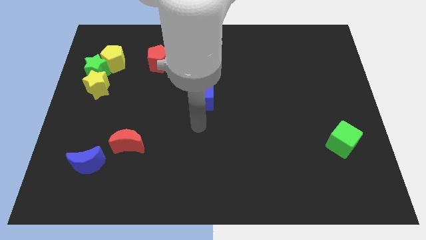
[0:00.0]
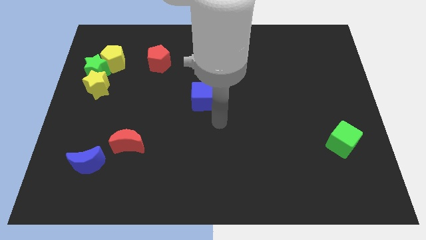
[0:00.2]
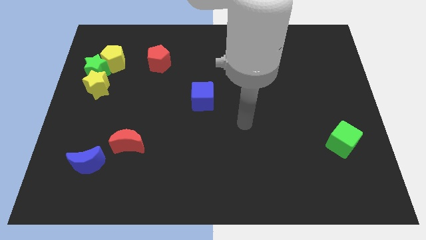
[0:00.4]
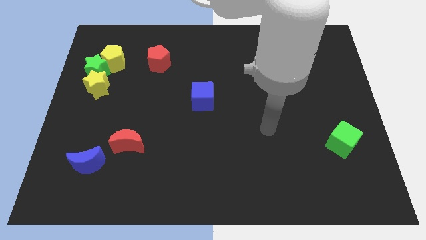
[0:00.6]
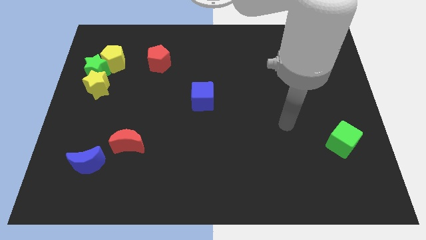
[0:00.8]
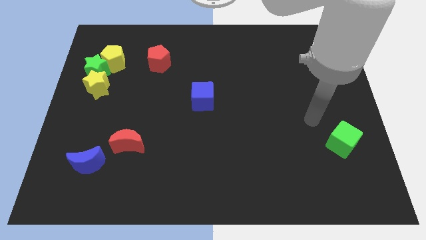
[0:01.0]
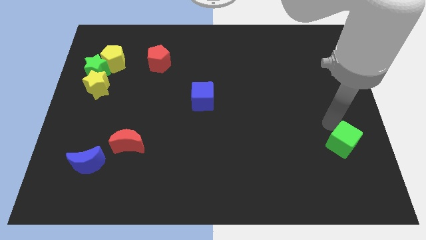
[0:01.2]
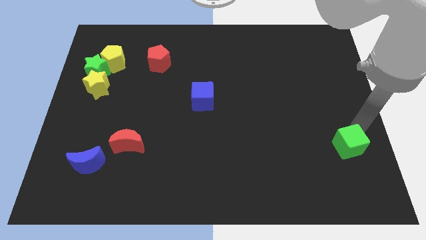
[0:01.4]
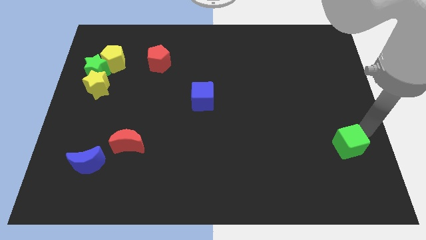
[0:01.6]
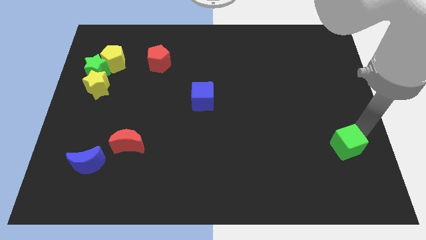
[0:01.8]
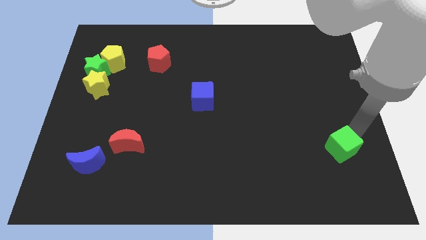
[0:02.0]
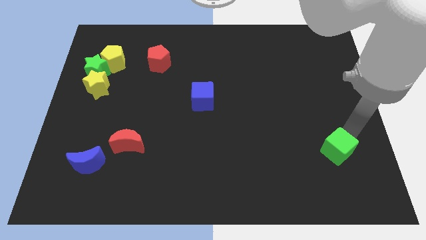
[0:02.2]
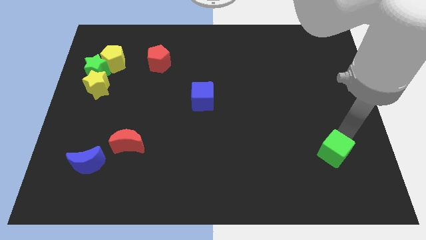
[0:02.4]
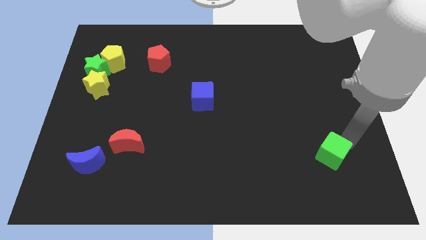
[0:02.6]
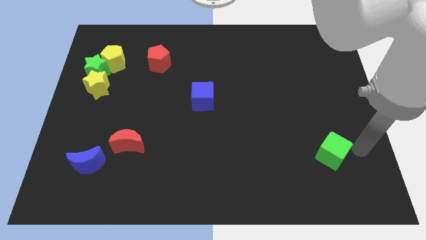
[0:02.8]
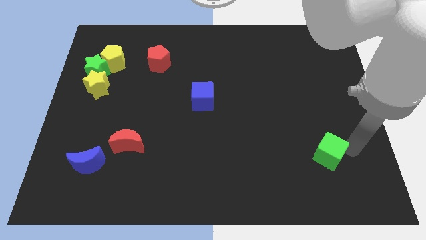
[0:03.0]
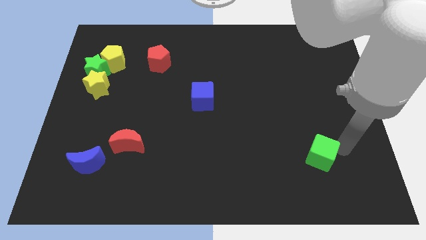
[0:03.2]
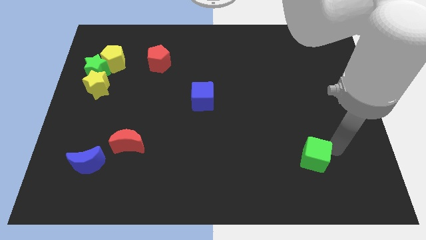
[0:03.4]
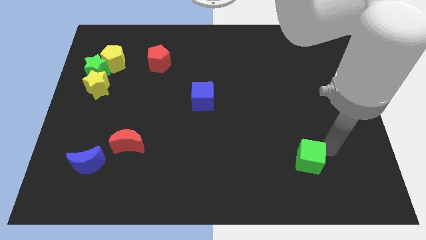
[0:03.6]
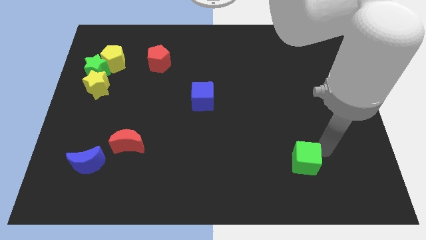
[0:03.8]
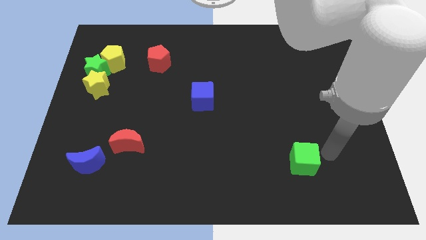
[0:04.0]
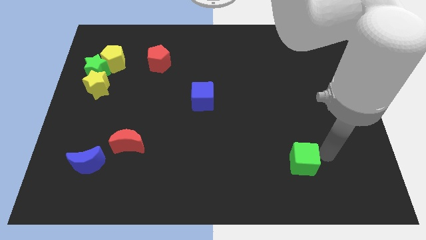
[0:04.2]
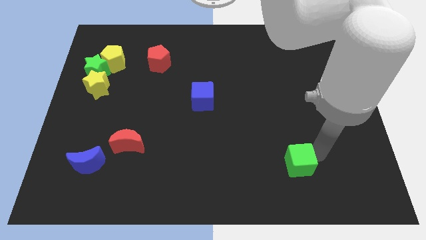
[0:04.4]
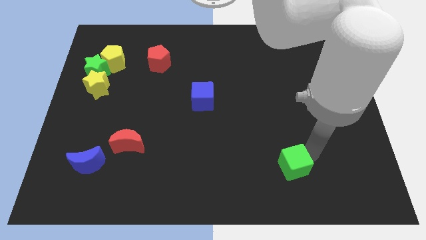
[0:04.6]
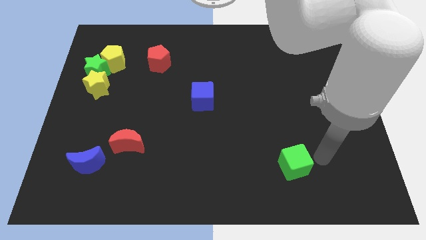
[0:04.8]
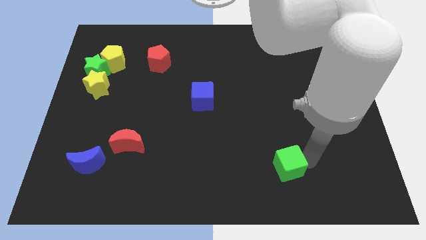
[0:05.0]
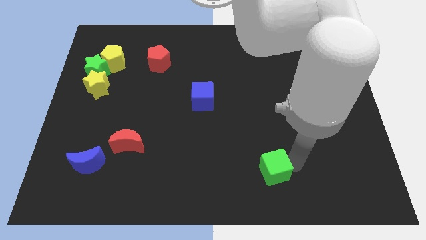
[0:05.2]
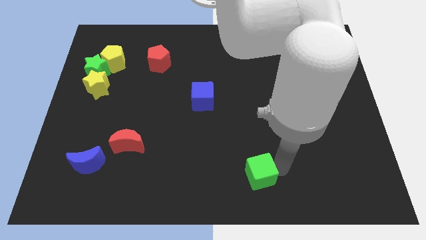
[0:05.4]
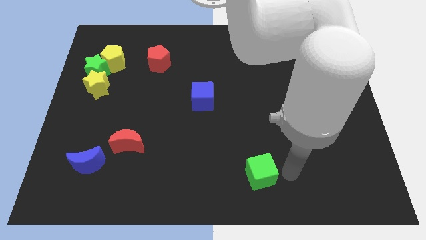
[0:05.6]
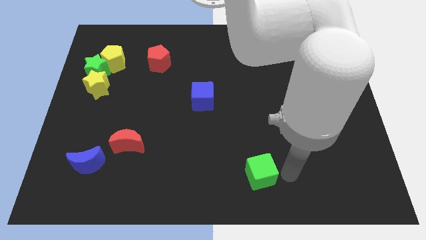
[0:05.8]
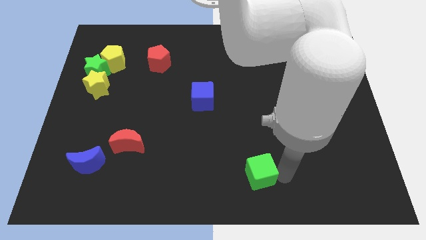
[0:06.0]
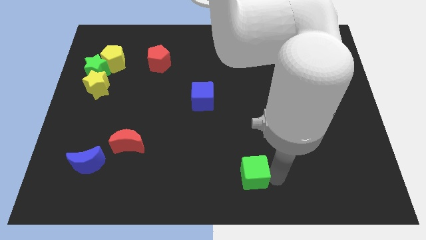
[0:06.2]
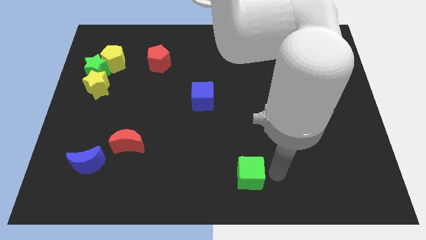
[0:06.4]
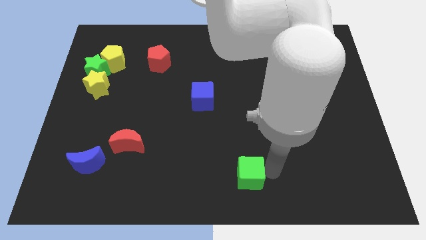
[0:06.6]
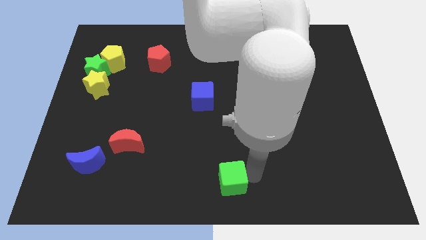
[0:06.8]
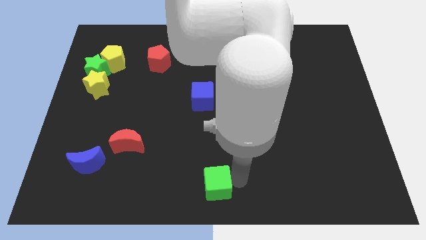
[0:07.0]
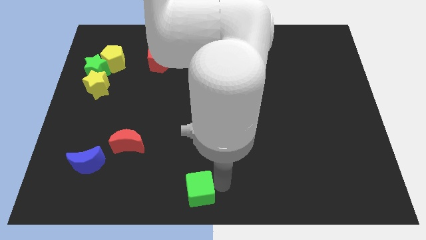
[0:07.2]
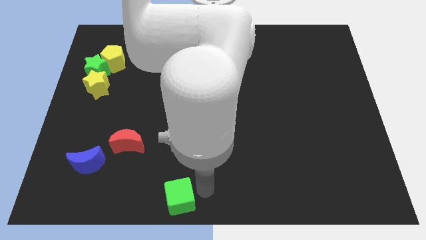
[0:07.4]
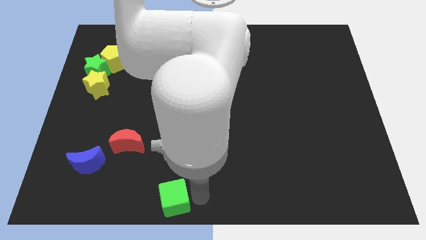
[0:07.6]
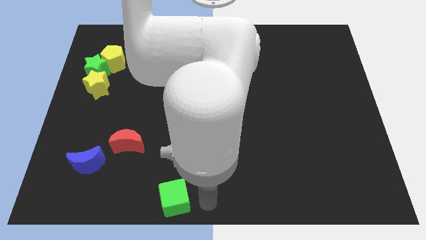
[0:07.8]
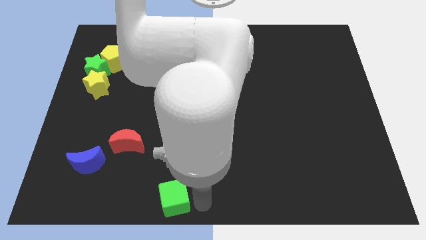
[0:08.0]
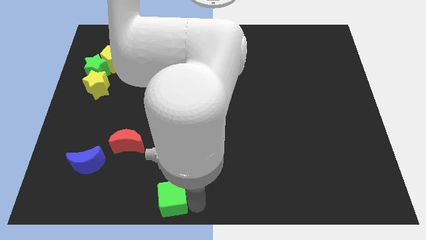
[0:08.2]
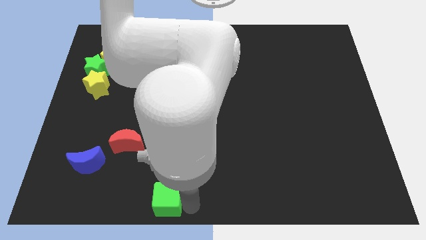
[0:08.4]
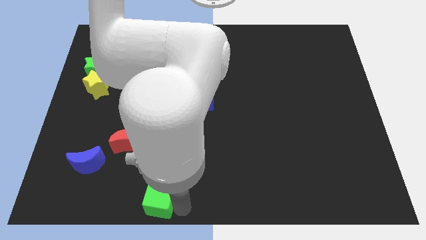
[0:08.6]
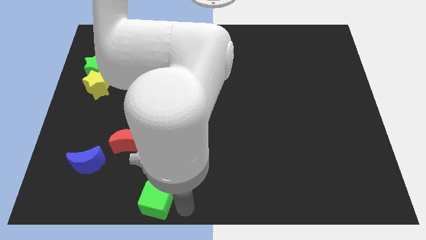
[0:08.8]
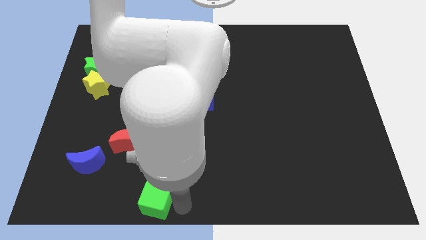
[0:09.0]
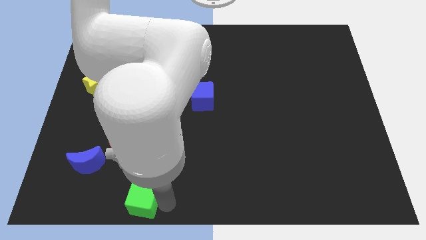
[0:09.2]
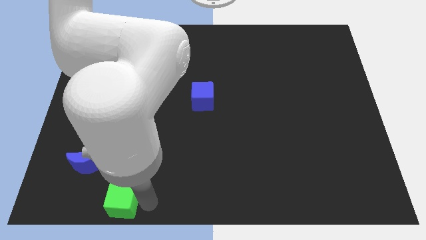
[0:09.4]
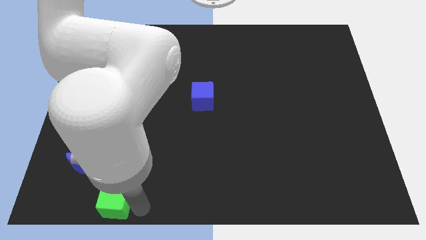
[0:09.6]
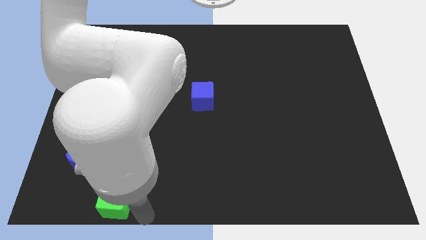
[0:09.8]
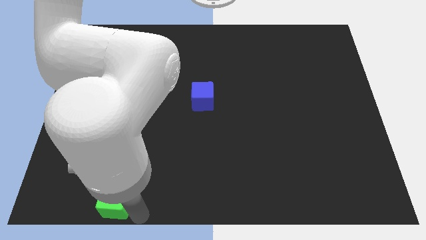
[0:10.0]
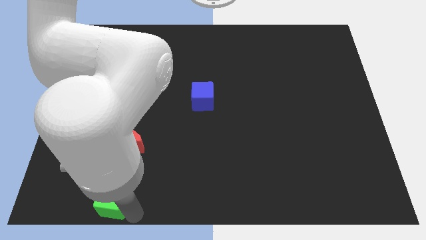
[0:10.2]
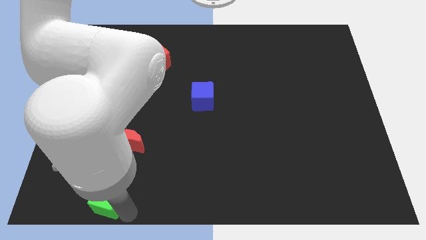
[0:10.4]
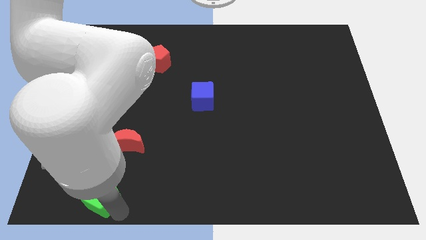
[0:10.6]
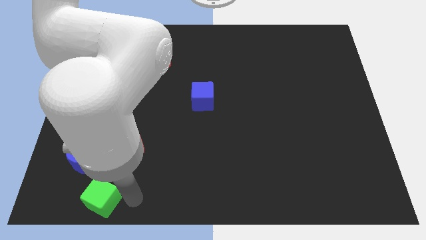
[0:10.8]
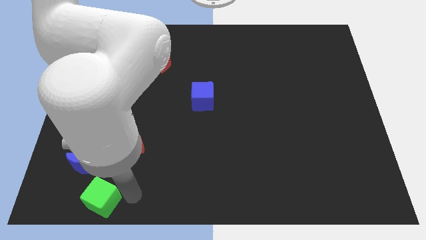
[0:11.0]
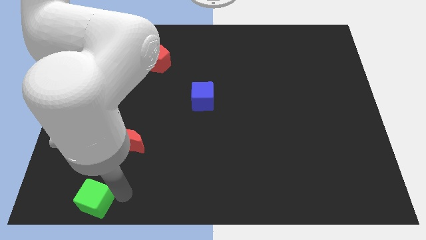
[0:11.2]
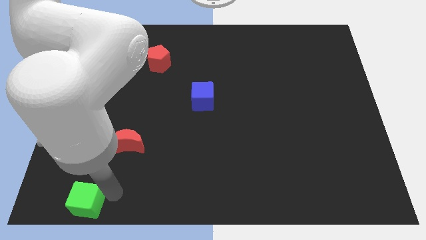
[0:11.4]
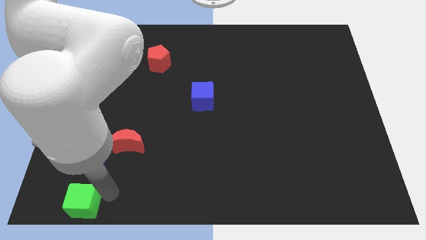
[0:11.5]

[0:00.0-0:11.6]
slide the green cube to the lower left corner
